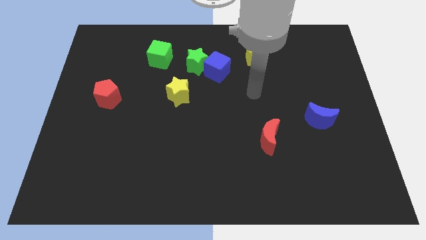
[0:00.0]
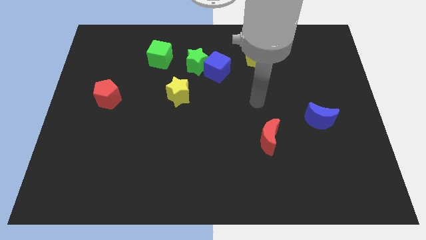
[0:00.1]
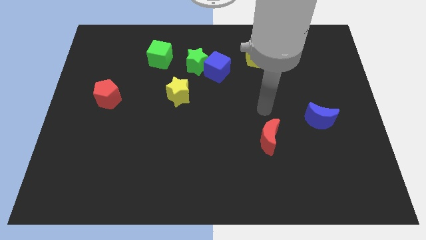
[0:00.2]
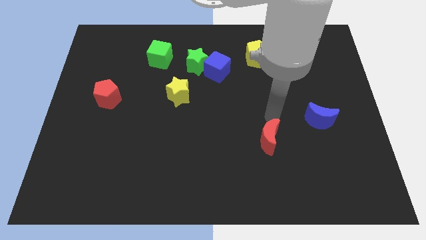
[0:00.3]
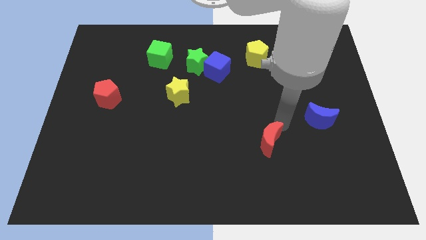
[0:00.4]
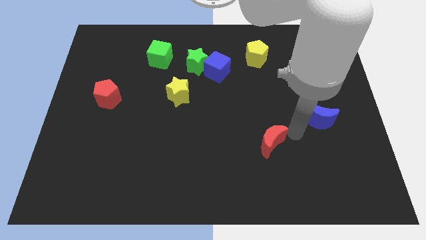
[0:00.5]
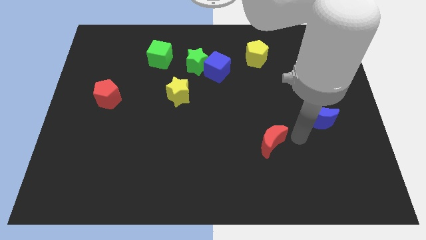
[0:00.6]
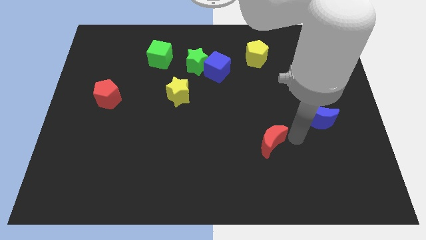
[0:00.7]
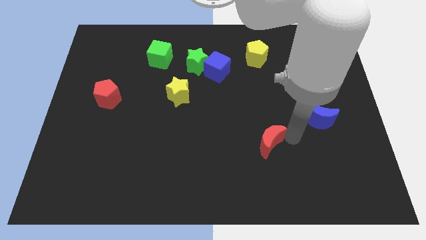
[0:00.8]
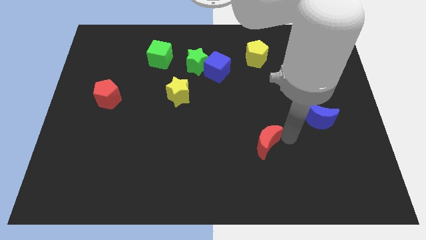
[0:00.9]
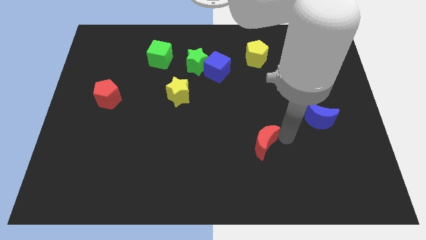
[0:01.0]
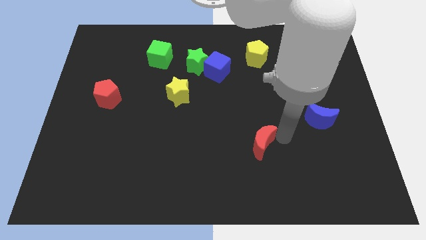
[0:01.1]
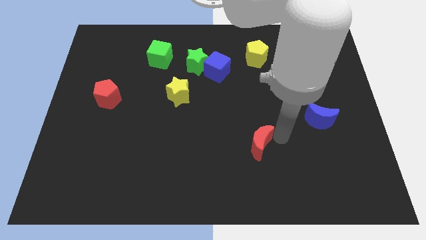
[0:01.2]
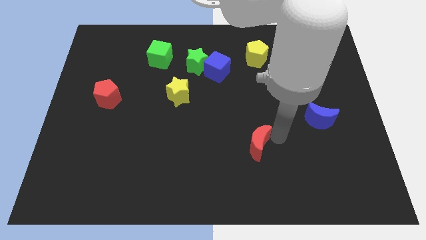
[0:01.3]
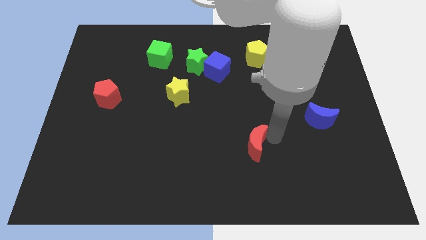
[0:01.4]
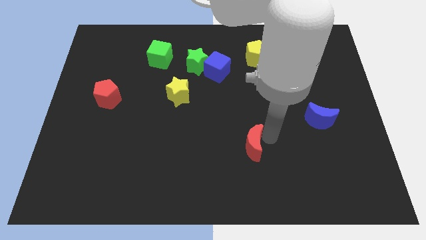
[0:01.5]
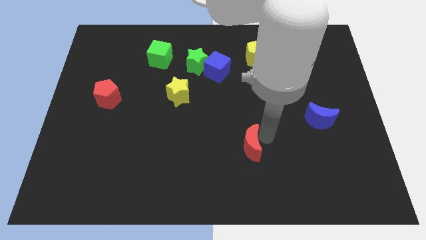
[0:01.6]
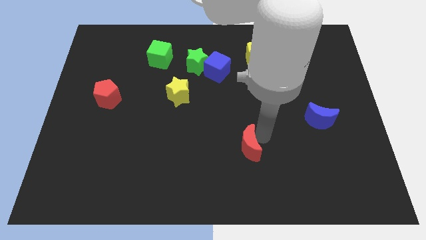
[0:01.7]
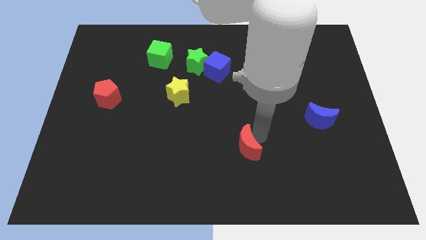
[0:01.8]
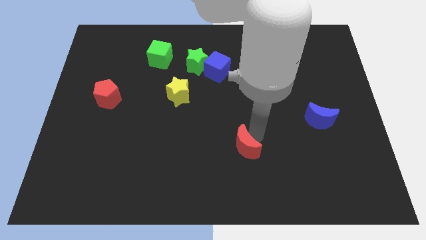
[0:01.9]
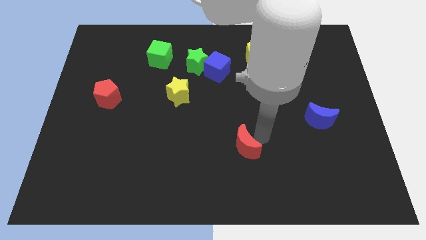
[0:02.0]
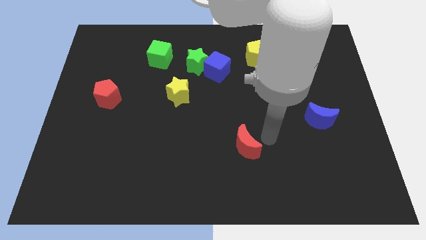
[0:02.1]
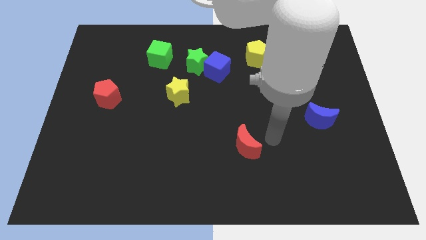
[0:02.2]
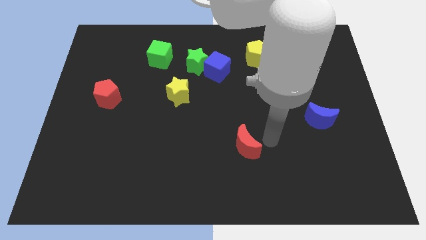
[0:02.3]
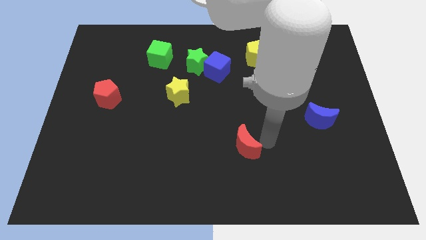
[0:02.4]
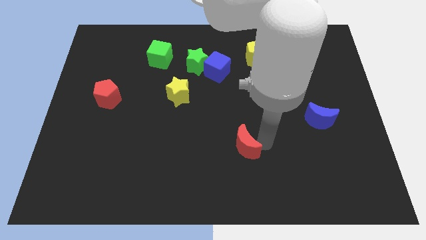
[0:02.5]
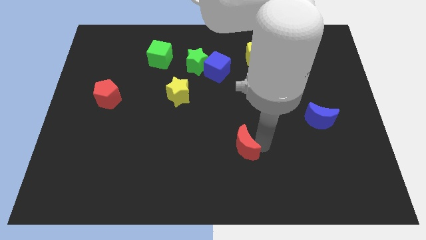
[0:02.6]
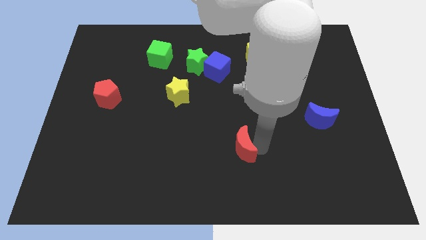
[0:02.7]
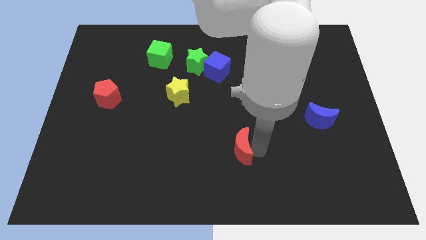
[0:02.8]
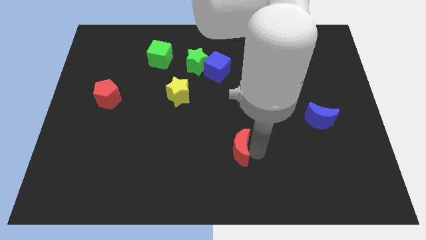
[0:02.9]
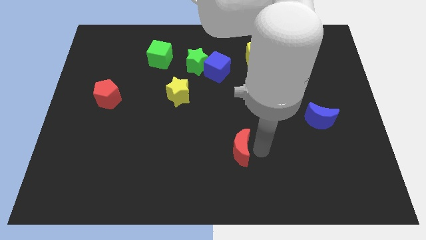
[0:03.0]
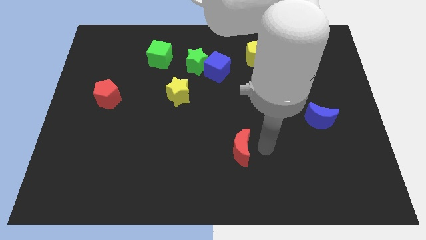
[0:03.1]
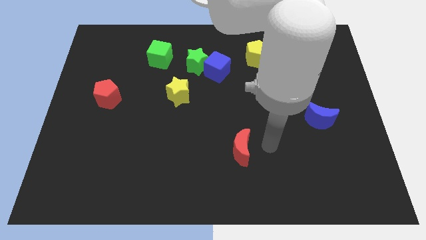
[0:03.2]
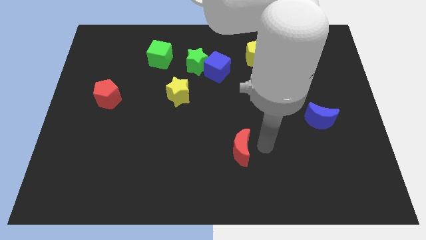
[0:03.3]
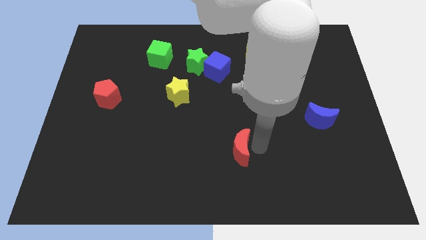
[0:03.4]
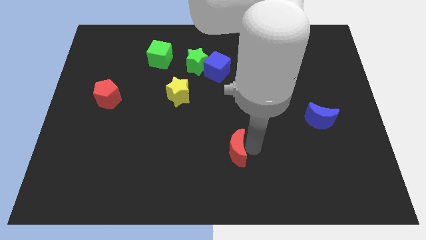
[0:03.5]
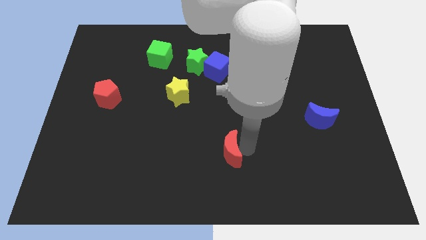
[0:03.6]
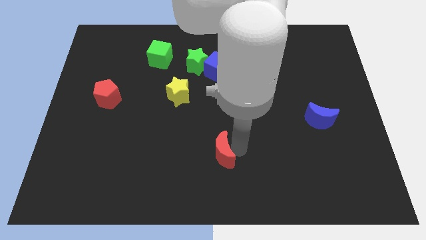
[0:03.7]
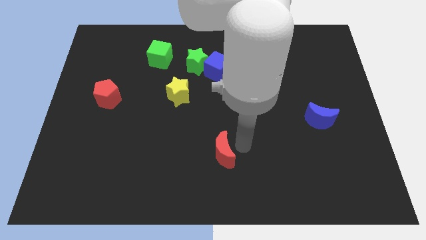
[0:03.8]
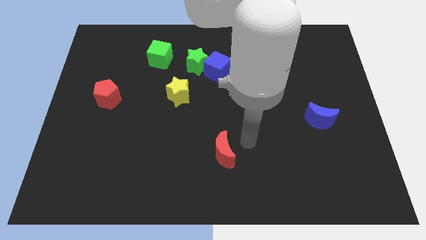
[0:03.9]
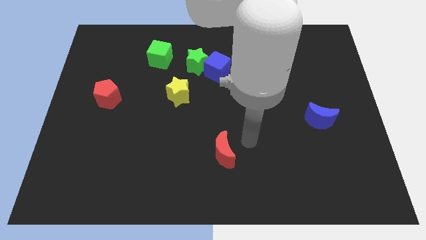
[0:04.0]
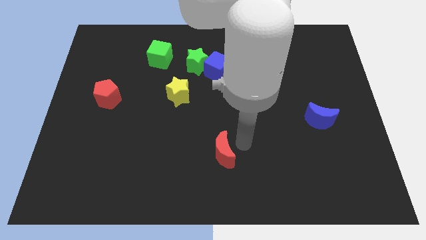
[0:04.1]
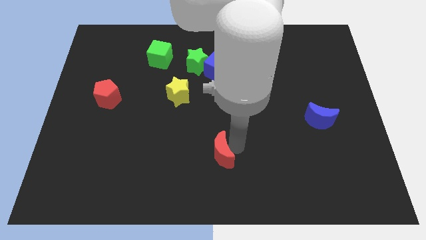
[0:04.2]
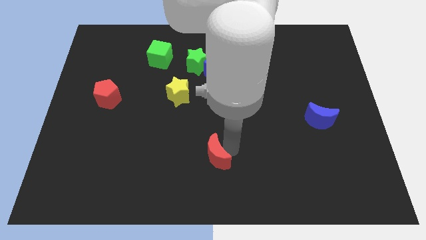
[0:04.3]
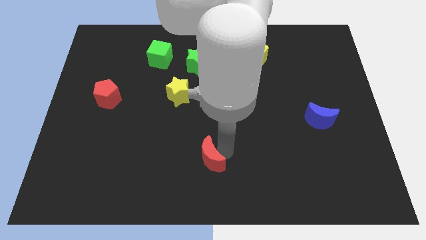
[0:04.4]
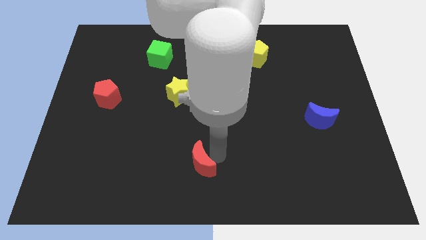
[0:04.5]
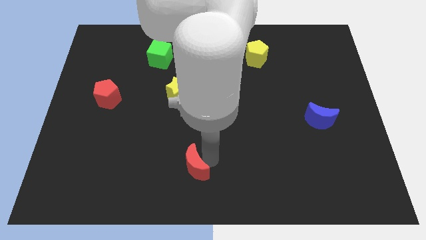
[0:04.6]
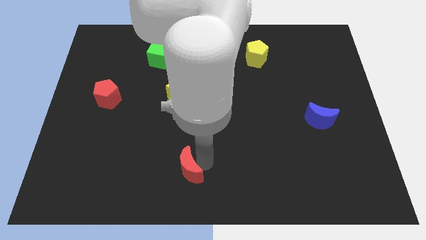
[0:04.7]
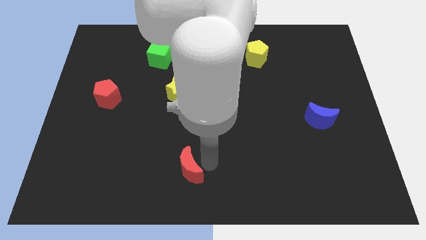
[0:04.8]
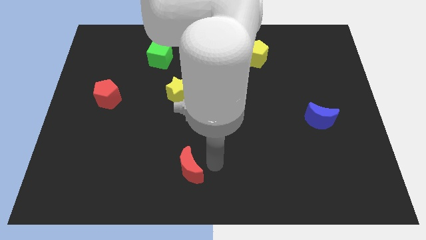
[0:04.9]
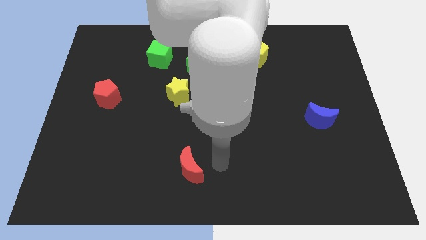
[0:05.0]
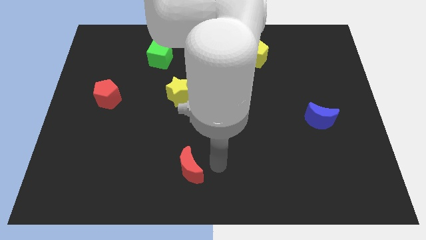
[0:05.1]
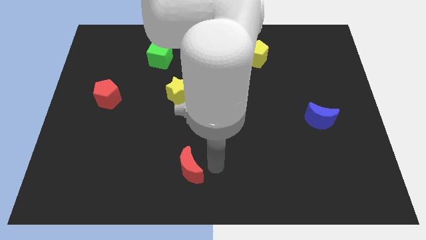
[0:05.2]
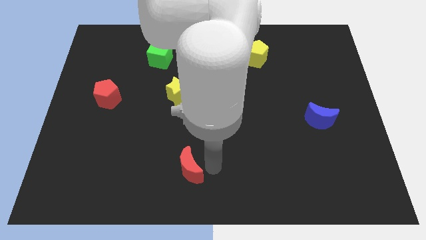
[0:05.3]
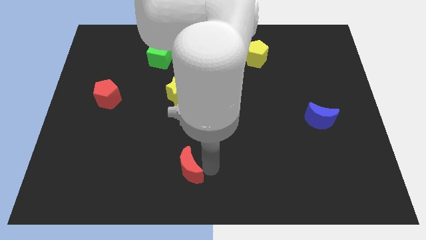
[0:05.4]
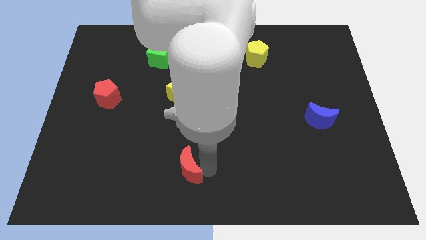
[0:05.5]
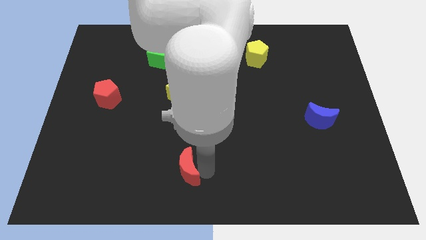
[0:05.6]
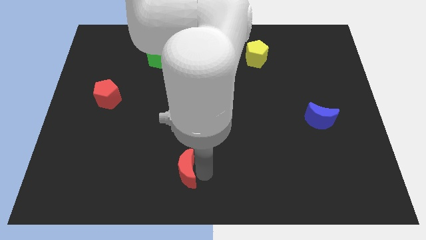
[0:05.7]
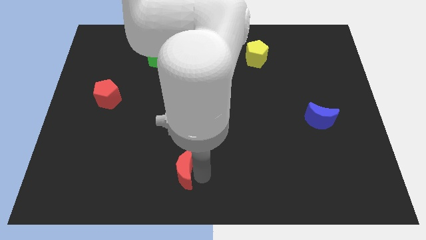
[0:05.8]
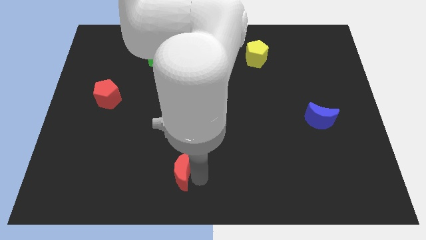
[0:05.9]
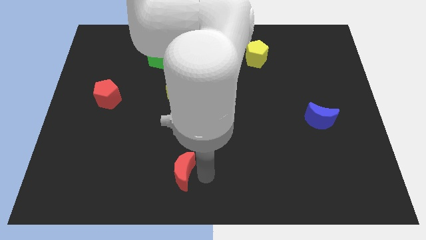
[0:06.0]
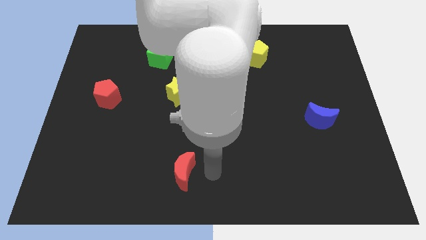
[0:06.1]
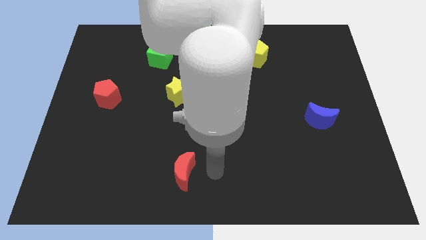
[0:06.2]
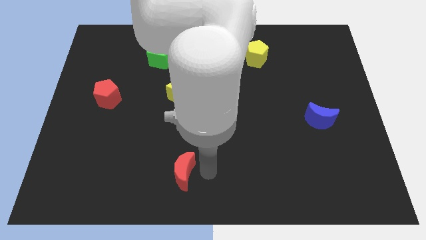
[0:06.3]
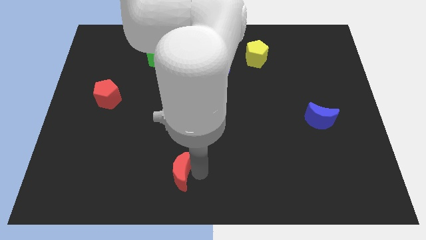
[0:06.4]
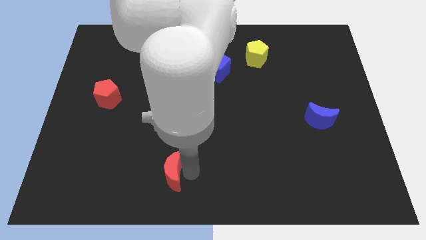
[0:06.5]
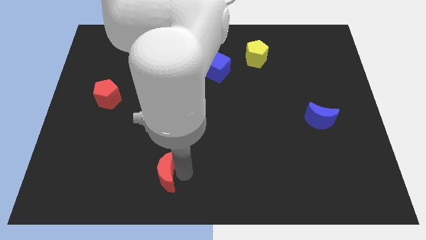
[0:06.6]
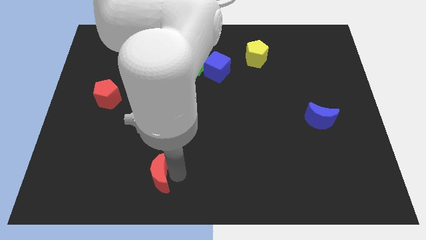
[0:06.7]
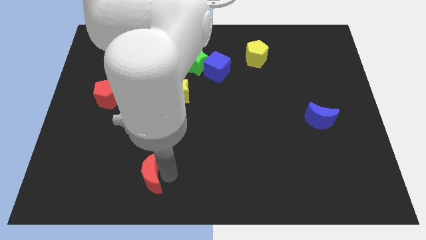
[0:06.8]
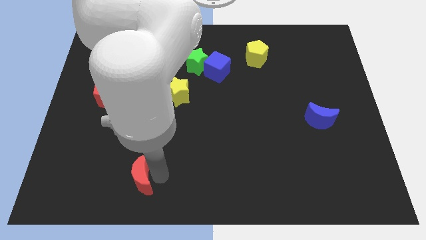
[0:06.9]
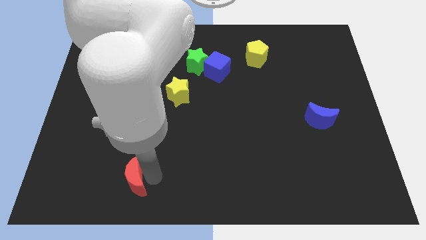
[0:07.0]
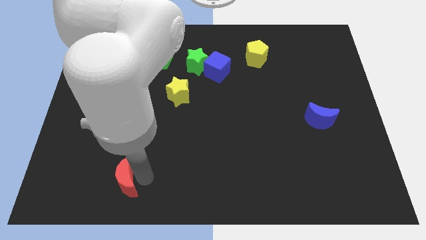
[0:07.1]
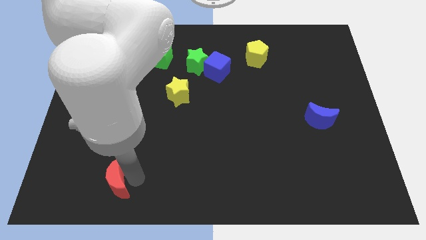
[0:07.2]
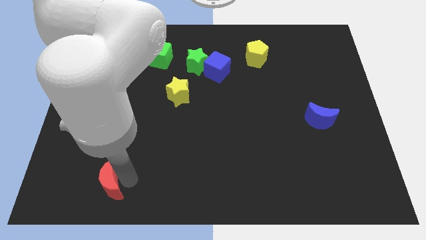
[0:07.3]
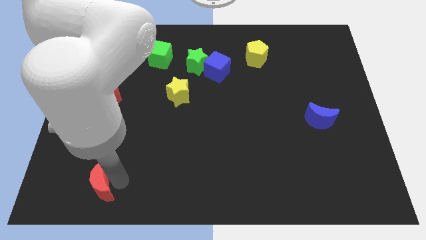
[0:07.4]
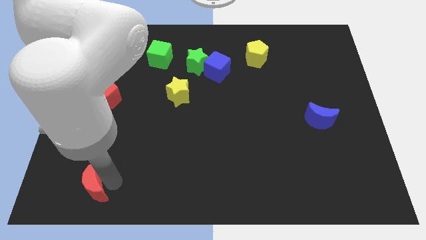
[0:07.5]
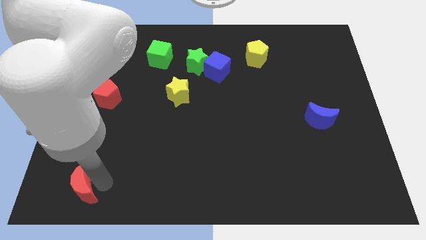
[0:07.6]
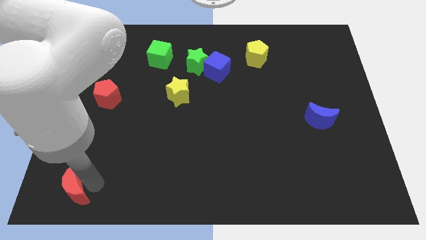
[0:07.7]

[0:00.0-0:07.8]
push the red moon to the bottom left of the board

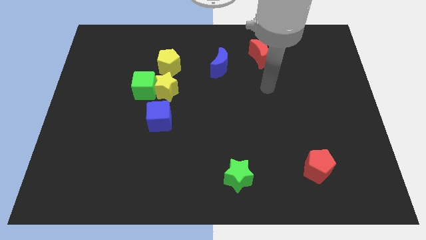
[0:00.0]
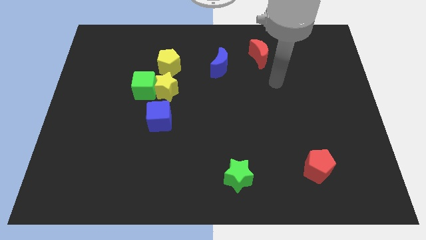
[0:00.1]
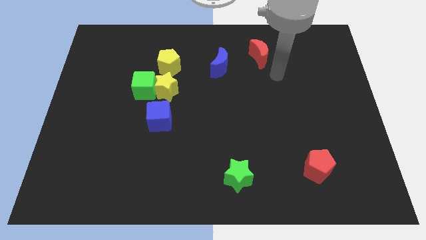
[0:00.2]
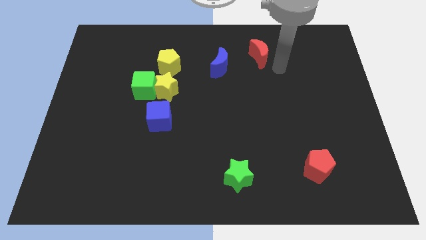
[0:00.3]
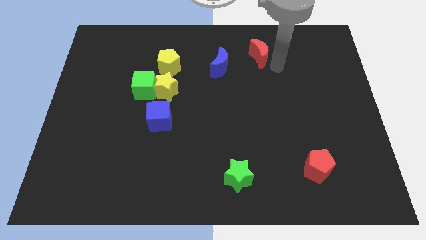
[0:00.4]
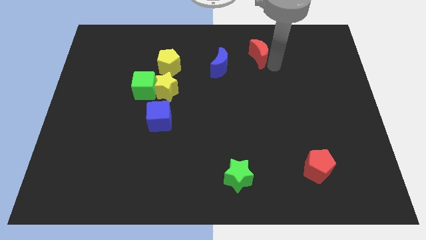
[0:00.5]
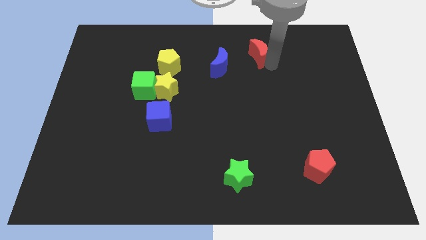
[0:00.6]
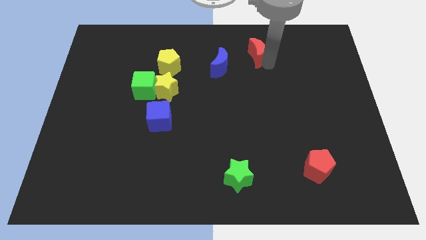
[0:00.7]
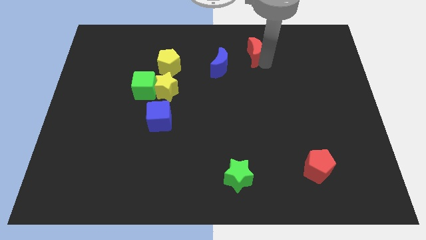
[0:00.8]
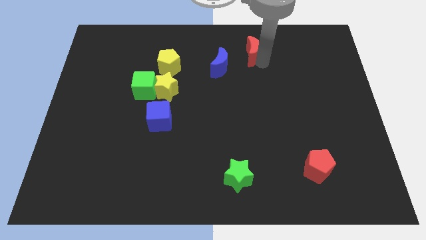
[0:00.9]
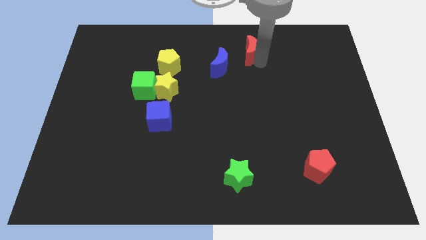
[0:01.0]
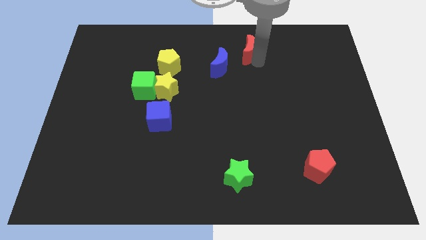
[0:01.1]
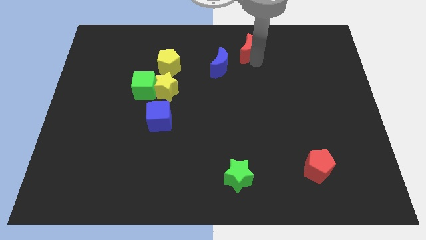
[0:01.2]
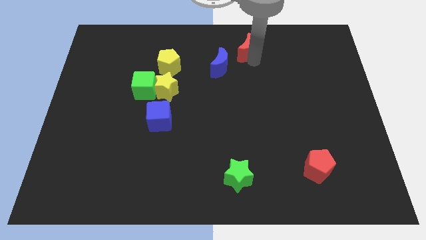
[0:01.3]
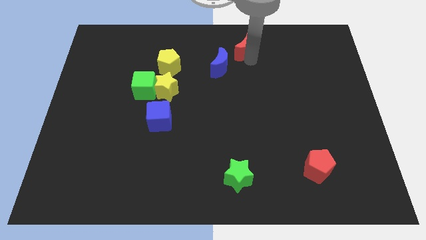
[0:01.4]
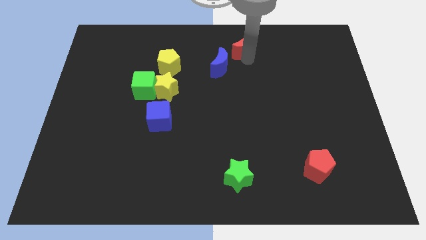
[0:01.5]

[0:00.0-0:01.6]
slide the red moon to the towards your base
